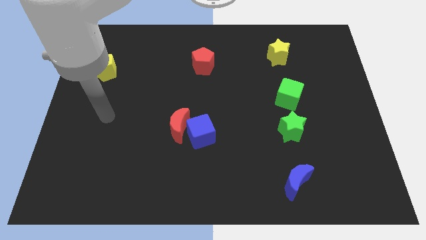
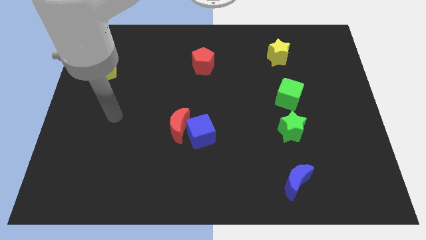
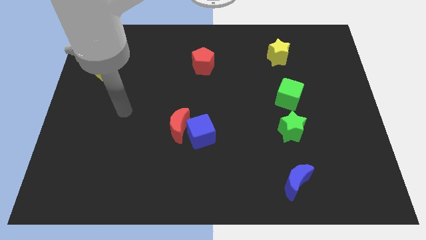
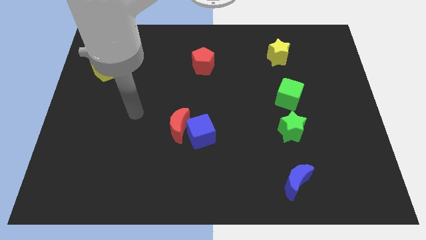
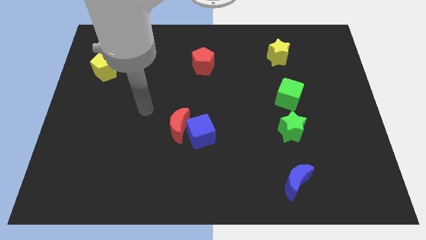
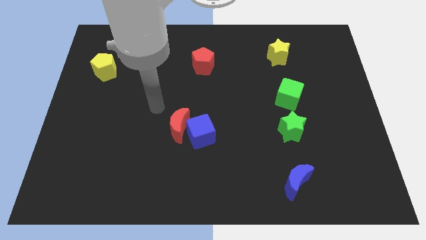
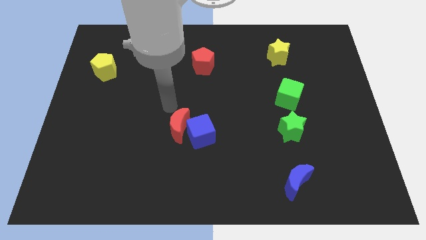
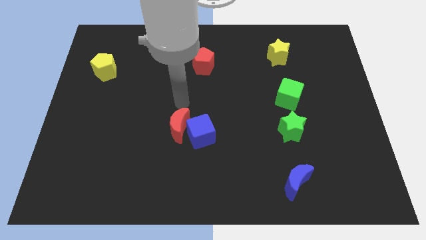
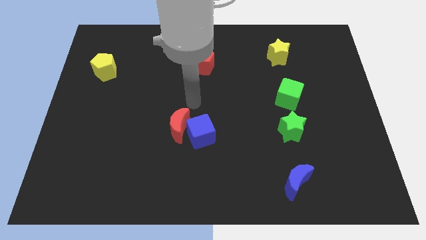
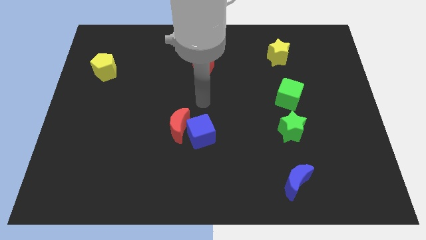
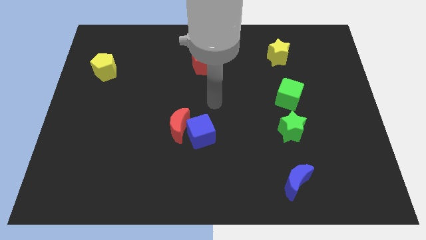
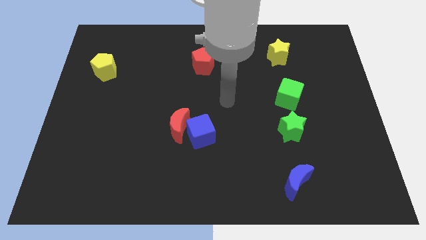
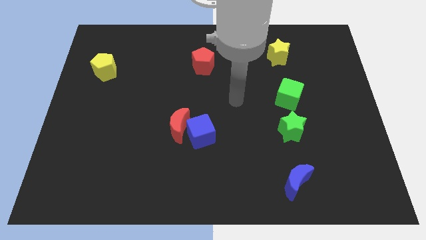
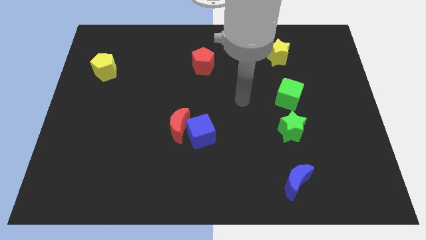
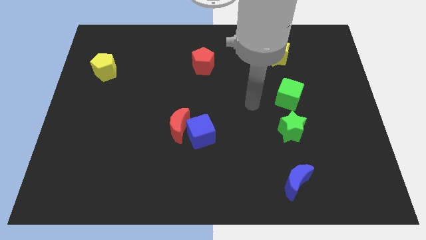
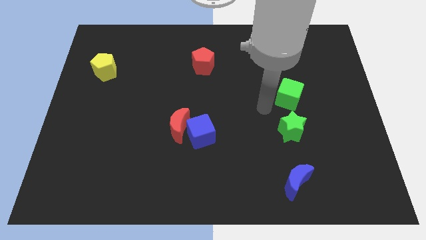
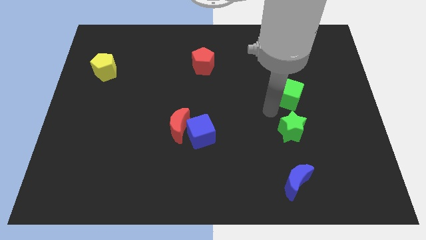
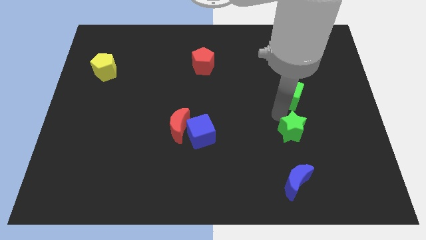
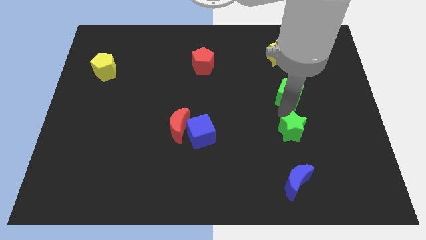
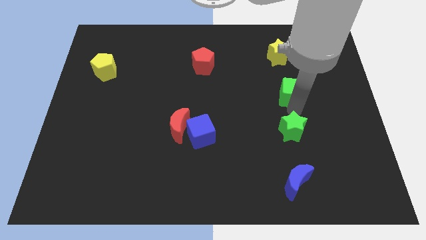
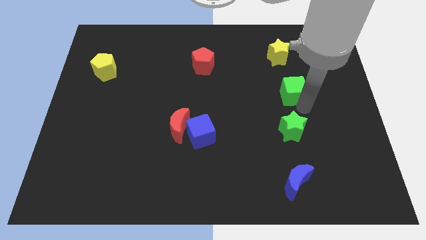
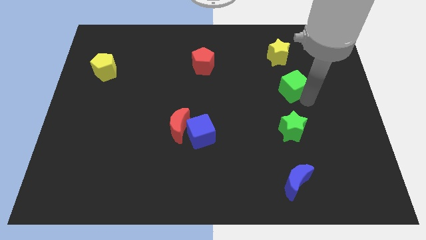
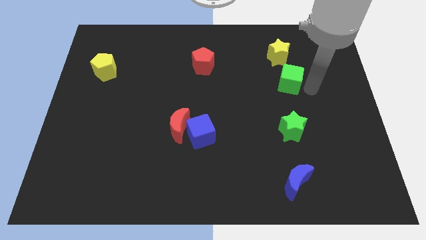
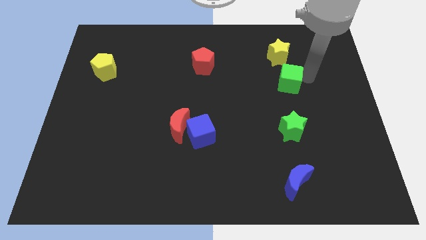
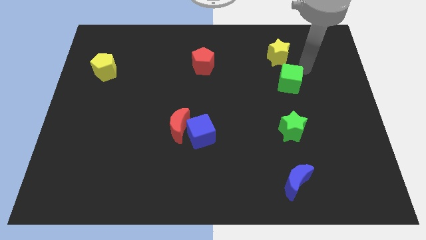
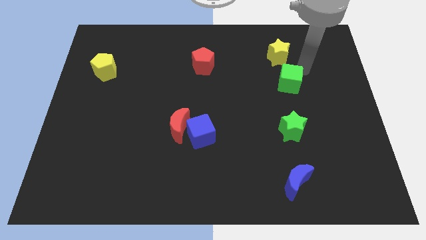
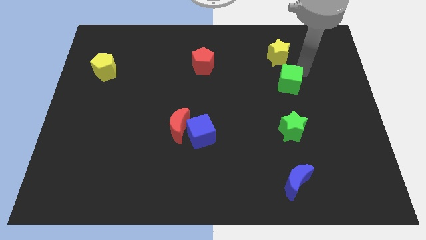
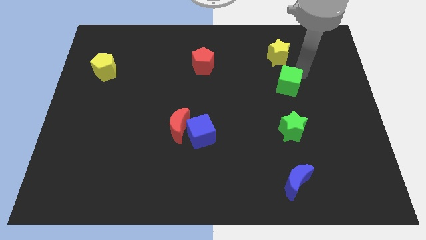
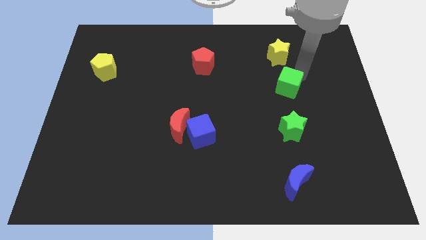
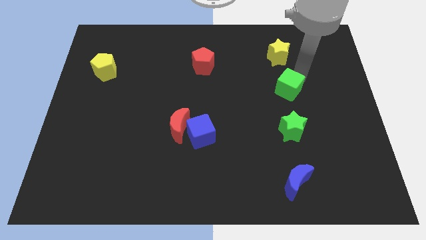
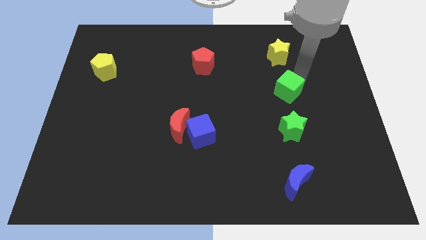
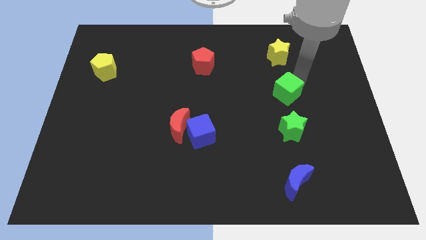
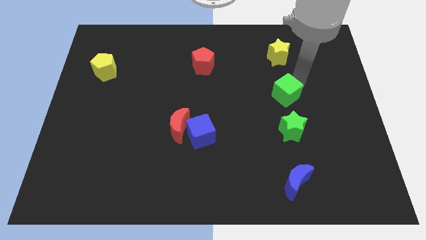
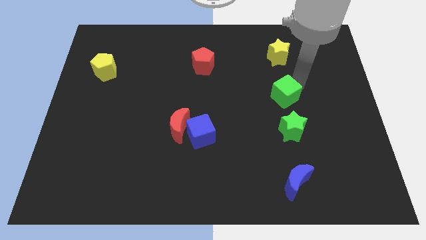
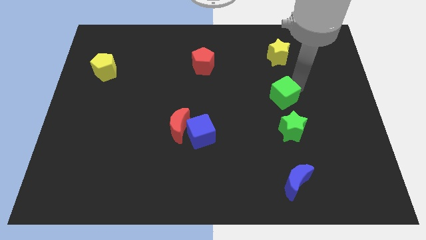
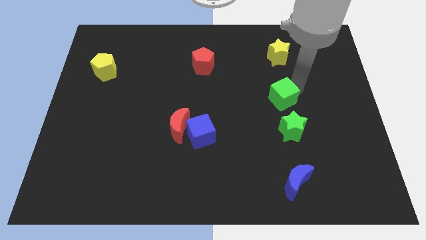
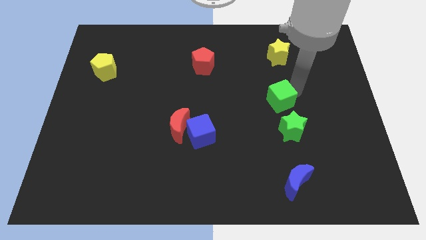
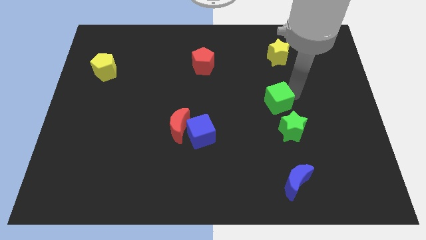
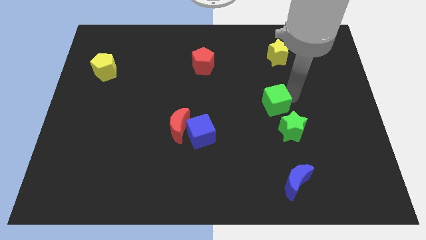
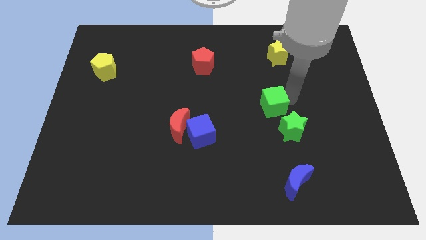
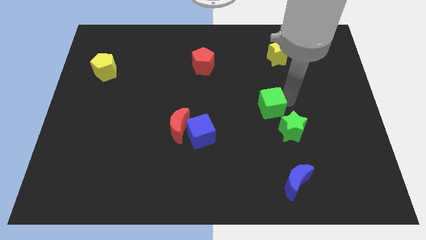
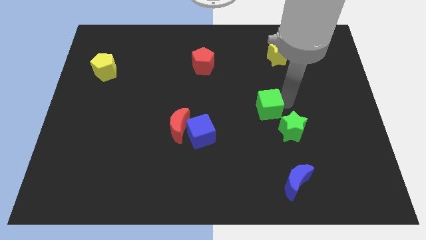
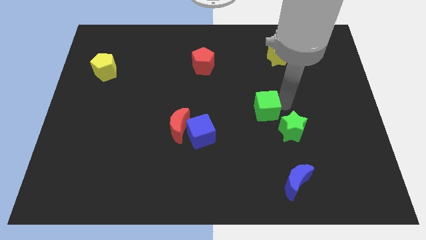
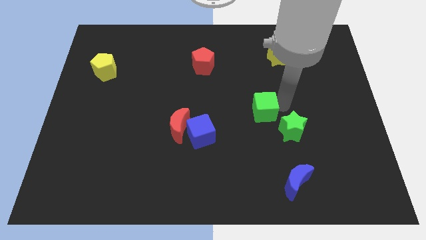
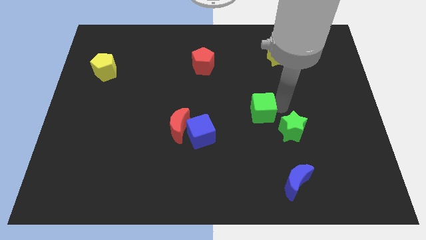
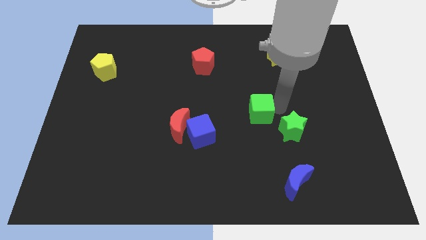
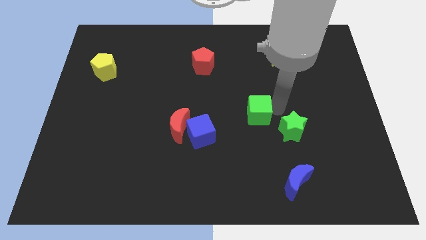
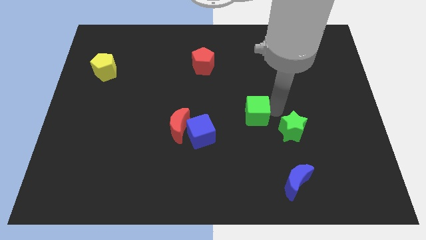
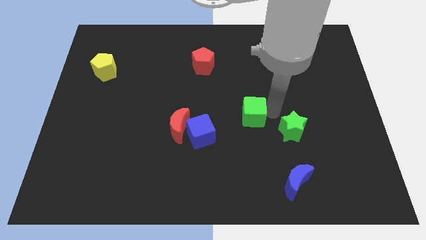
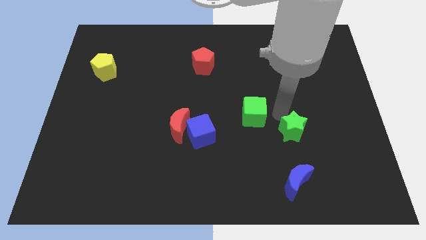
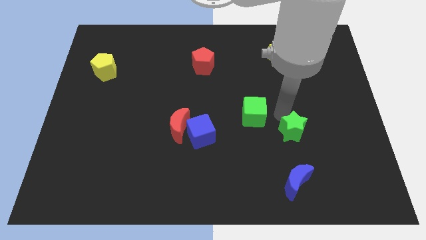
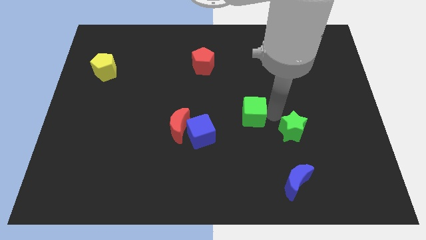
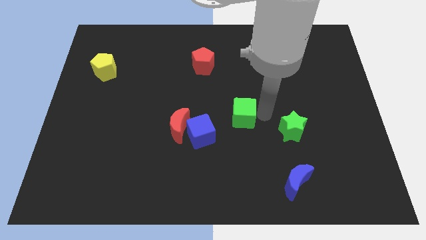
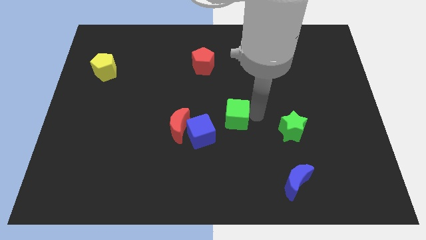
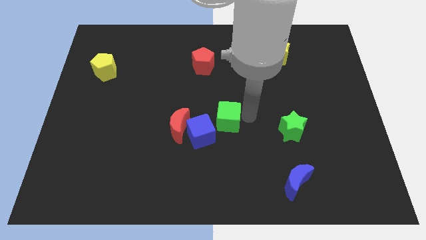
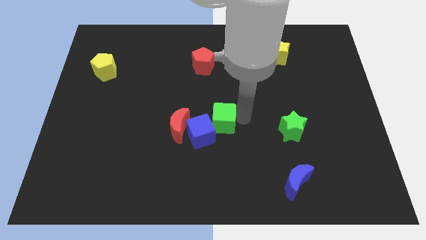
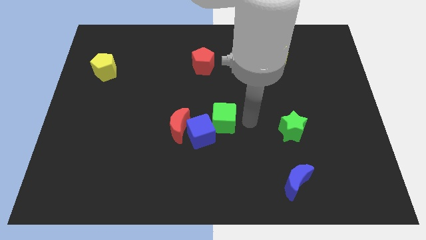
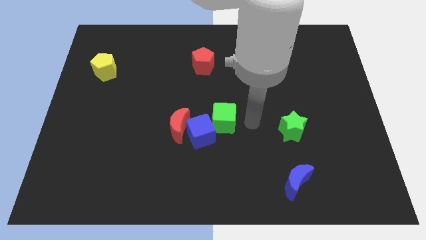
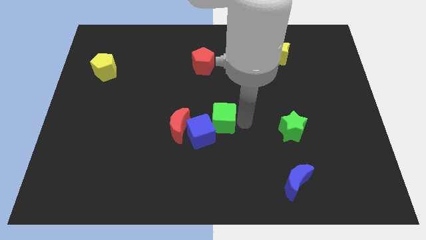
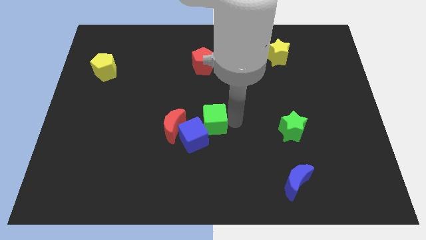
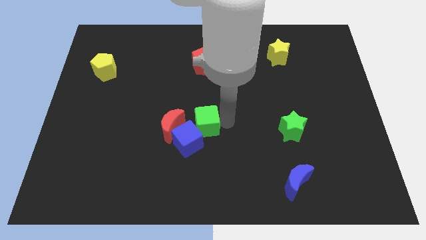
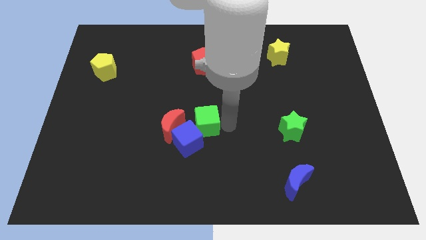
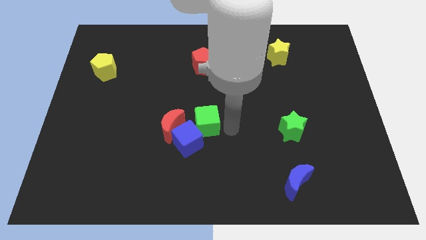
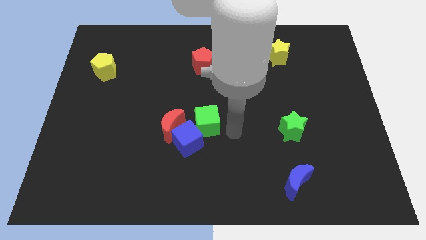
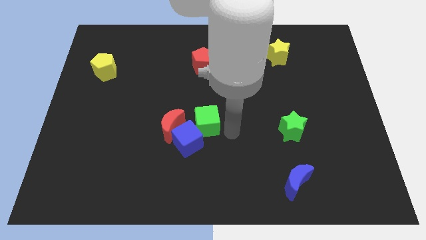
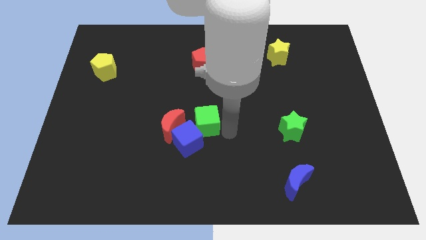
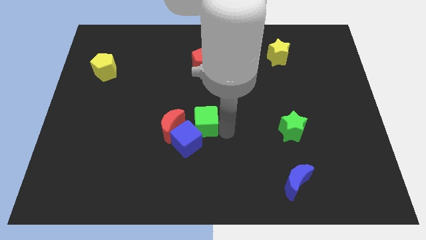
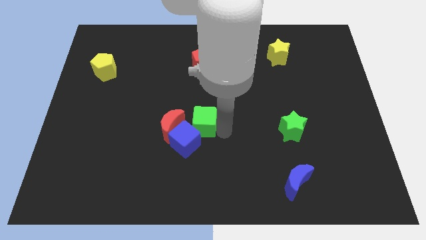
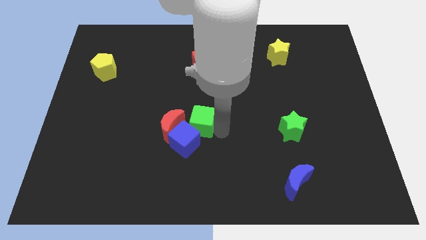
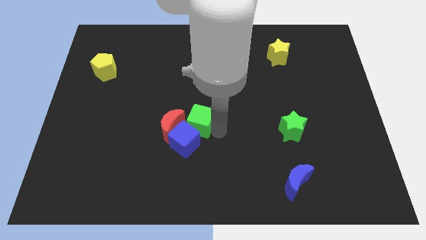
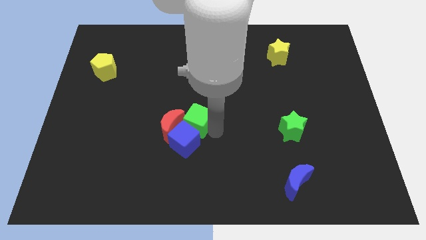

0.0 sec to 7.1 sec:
push the green cube close to the red moon
